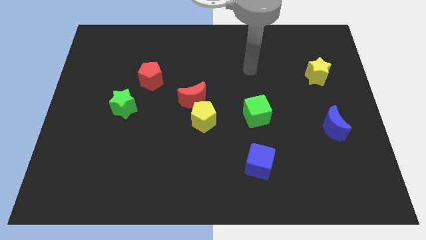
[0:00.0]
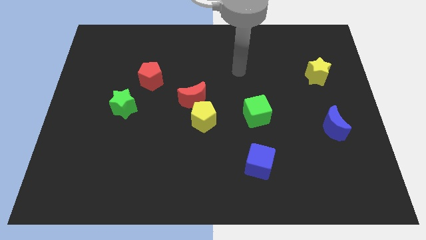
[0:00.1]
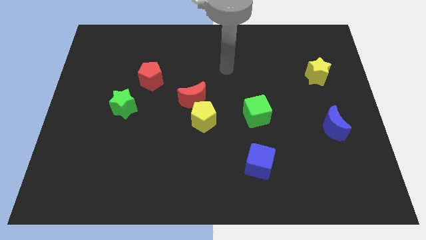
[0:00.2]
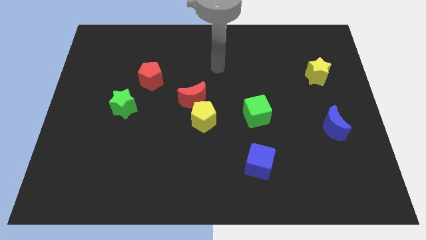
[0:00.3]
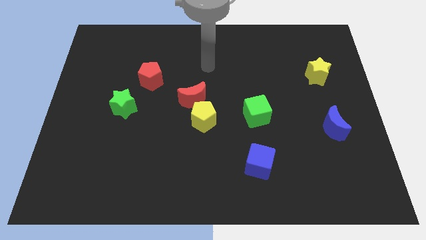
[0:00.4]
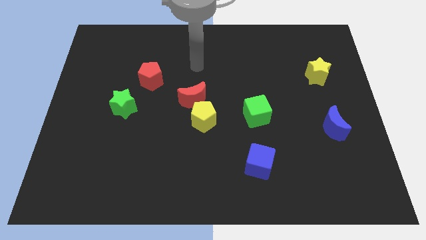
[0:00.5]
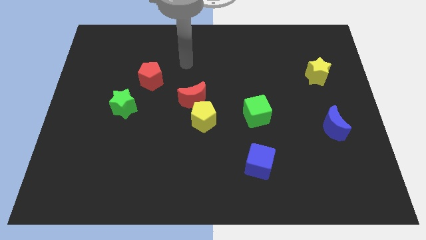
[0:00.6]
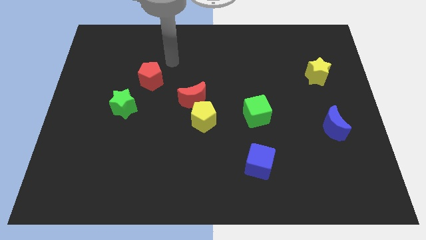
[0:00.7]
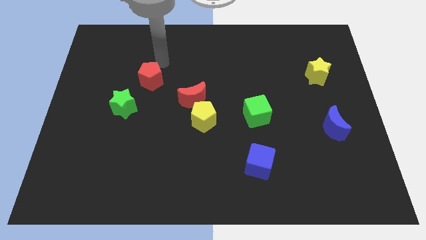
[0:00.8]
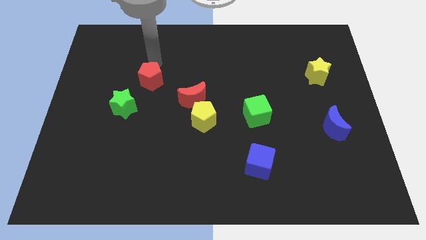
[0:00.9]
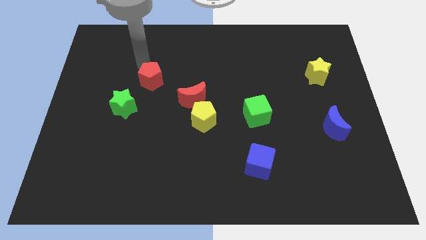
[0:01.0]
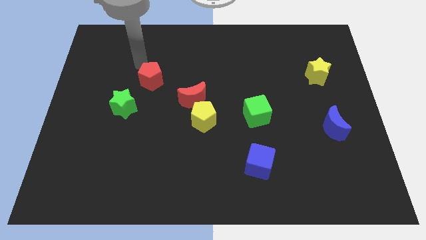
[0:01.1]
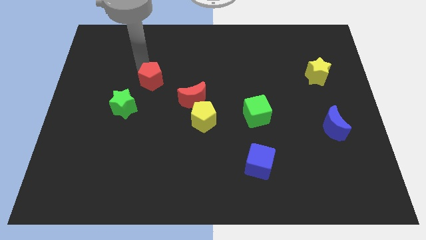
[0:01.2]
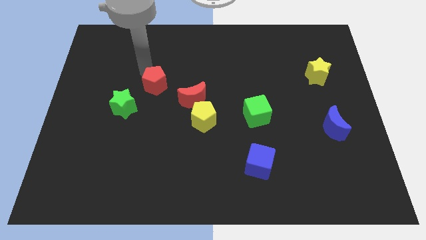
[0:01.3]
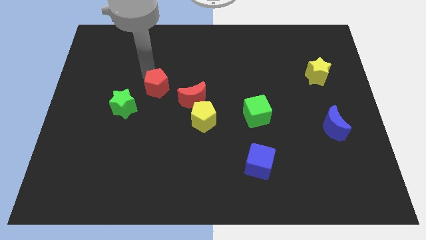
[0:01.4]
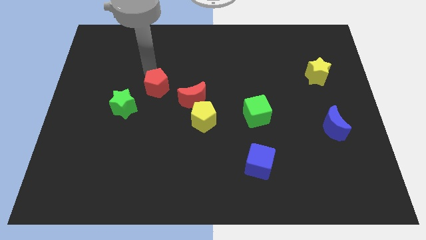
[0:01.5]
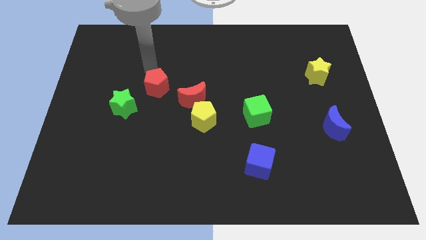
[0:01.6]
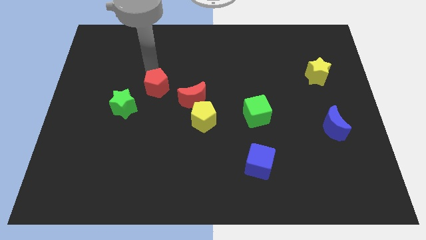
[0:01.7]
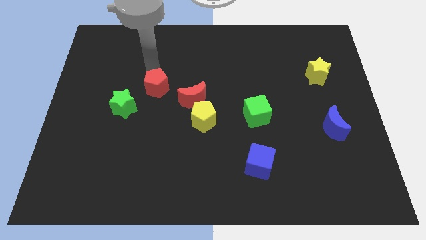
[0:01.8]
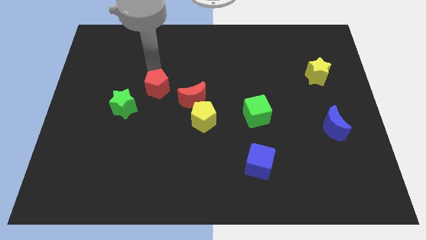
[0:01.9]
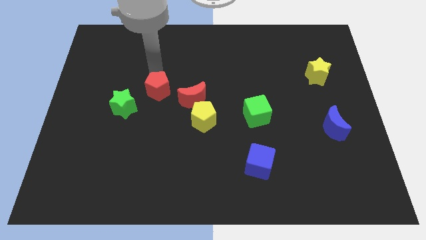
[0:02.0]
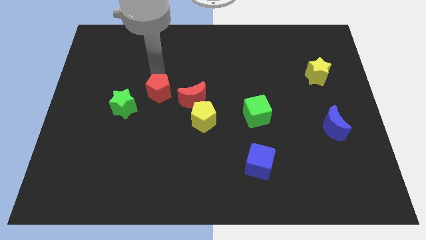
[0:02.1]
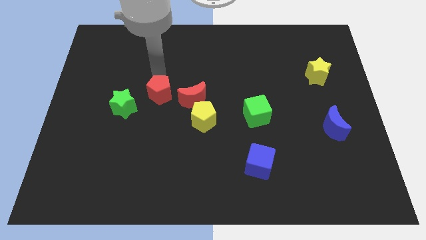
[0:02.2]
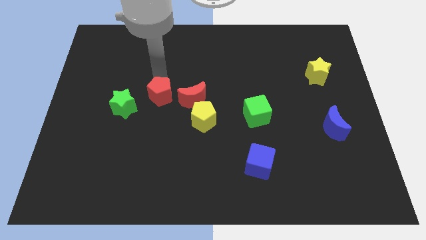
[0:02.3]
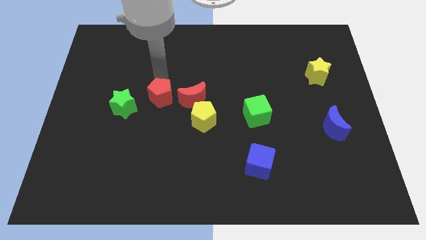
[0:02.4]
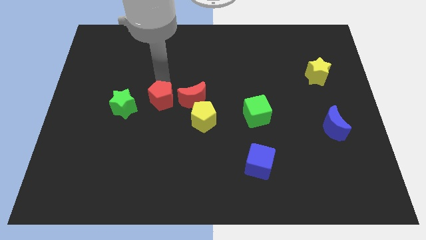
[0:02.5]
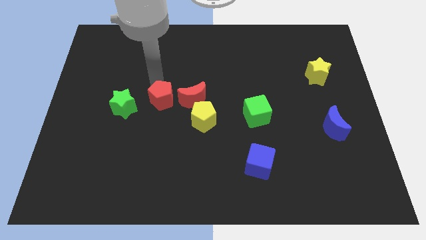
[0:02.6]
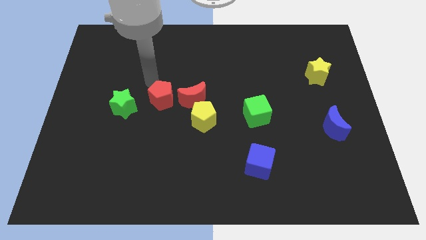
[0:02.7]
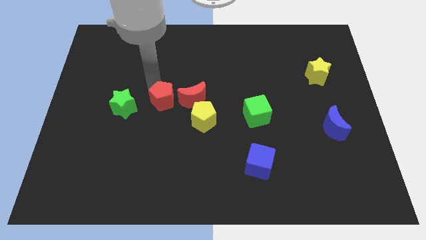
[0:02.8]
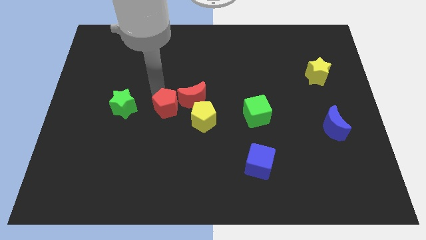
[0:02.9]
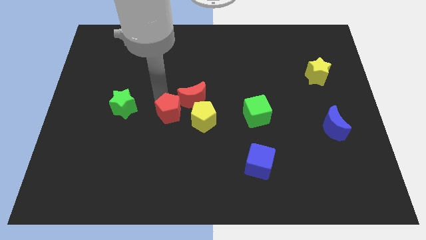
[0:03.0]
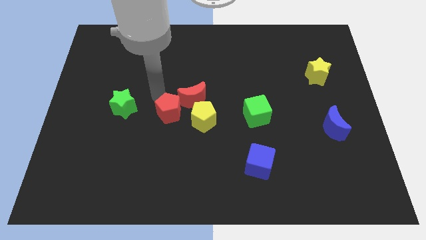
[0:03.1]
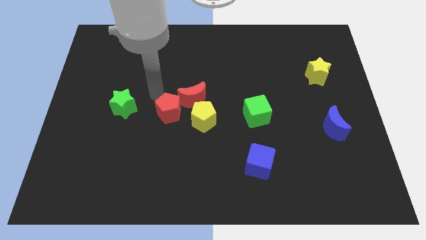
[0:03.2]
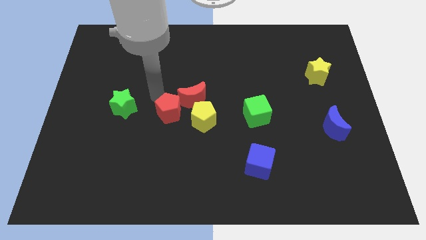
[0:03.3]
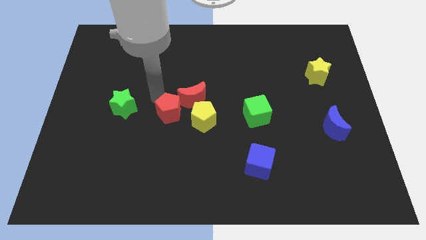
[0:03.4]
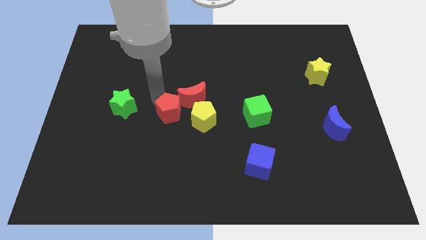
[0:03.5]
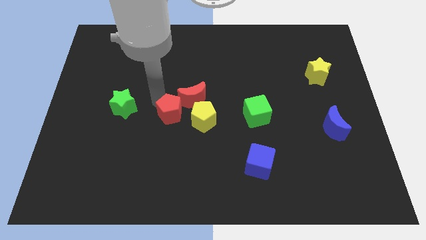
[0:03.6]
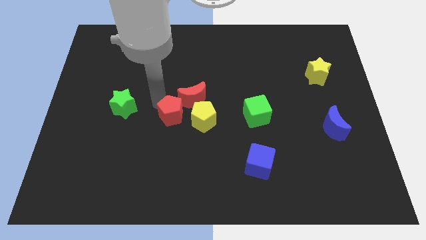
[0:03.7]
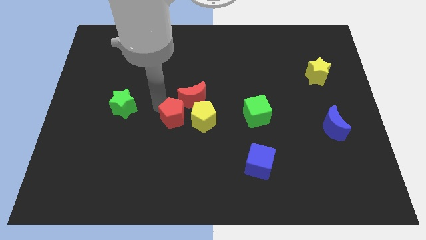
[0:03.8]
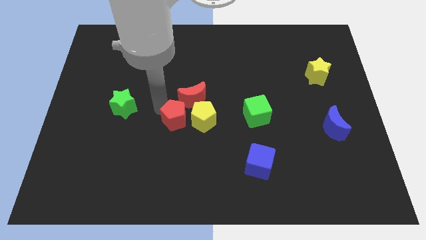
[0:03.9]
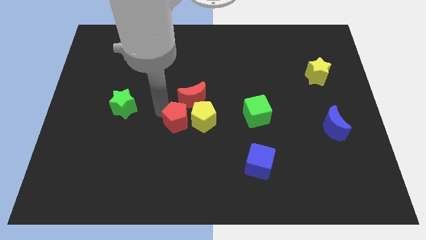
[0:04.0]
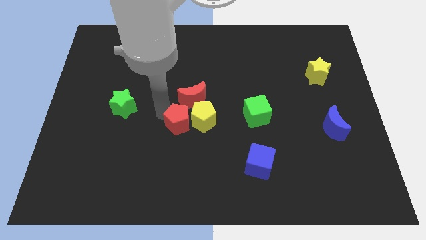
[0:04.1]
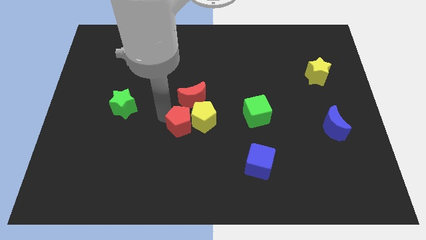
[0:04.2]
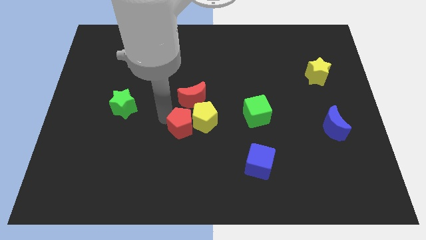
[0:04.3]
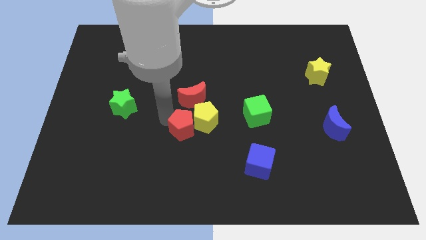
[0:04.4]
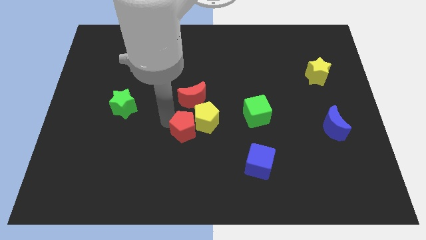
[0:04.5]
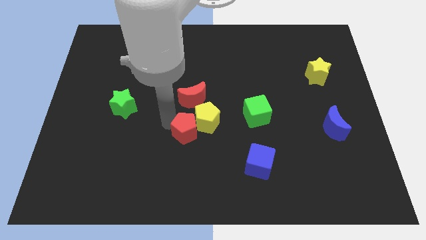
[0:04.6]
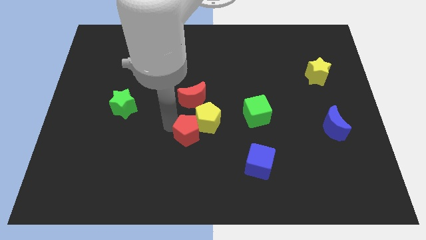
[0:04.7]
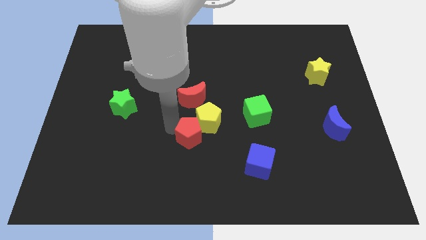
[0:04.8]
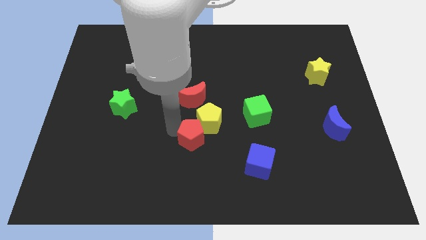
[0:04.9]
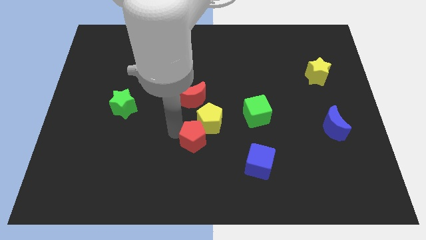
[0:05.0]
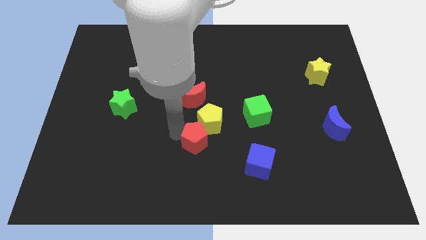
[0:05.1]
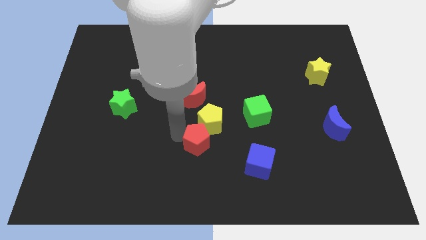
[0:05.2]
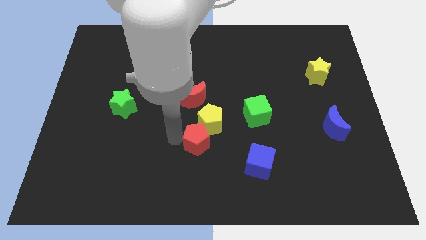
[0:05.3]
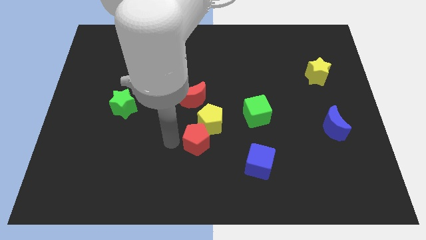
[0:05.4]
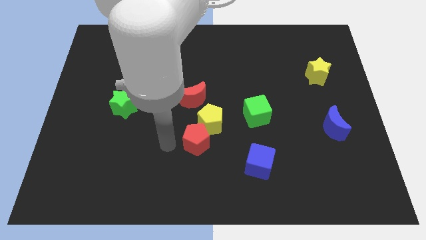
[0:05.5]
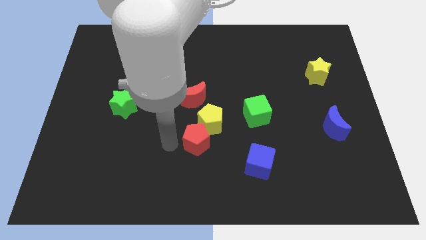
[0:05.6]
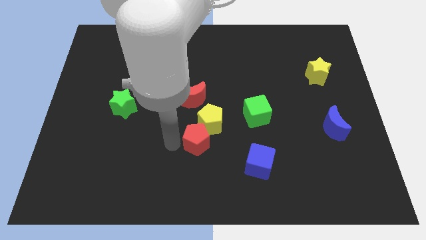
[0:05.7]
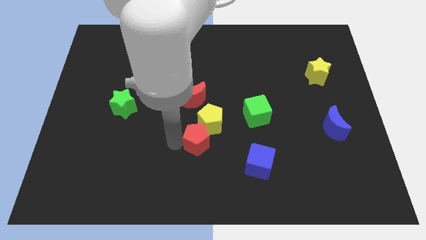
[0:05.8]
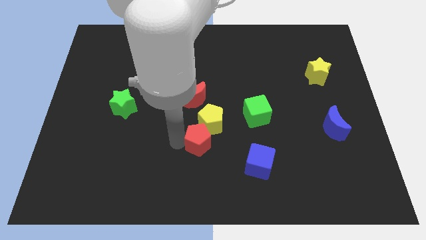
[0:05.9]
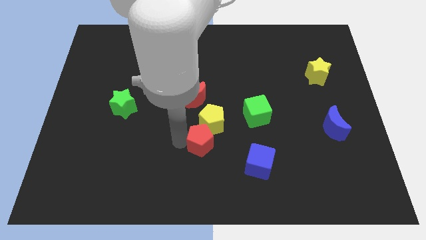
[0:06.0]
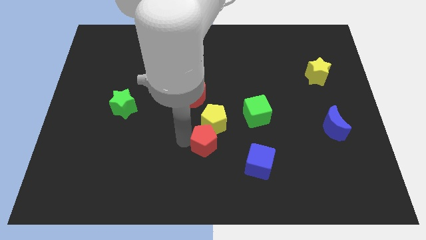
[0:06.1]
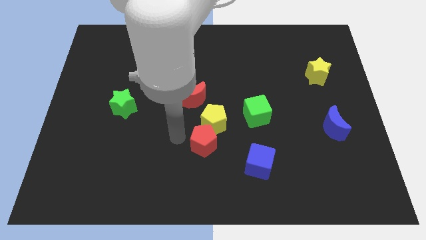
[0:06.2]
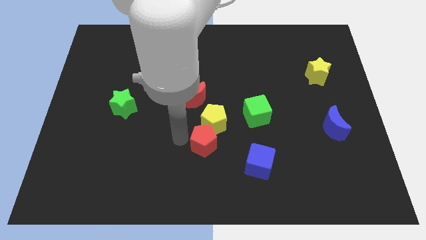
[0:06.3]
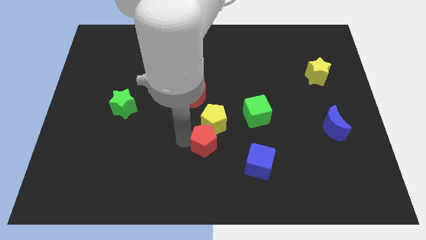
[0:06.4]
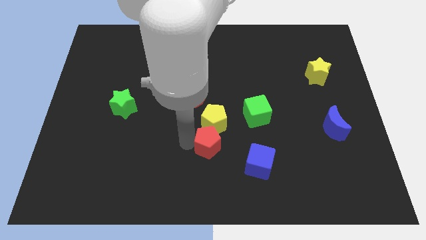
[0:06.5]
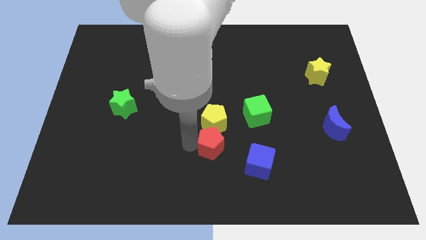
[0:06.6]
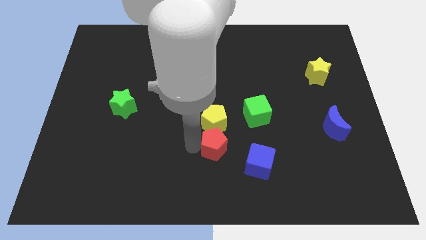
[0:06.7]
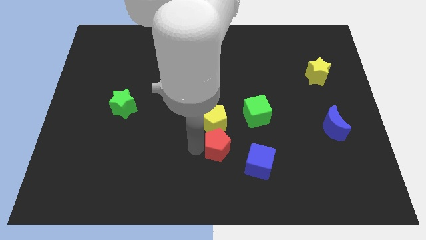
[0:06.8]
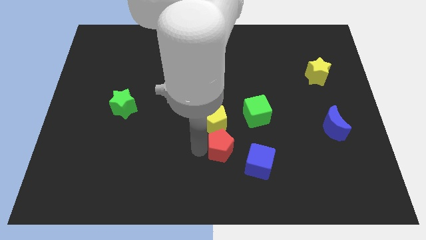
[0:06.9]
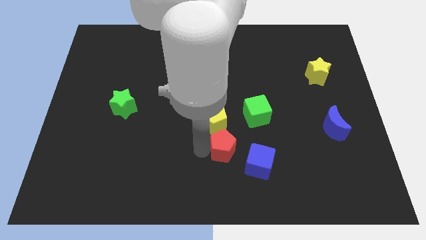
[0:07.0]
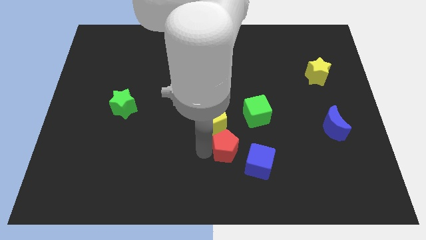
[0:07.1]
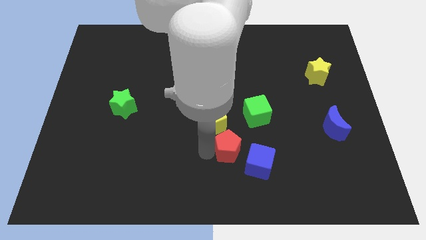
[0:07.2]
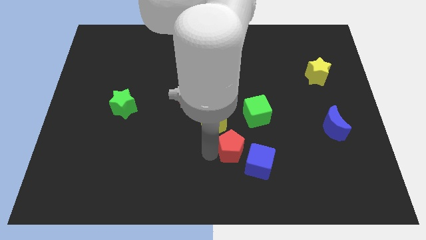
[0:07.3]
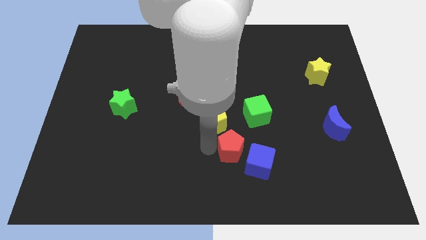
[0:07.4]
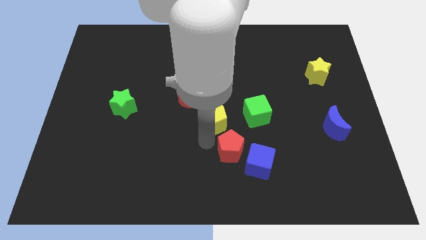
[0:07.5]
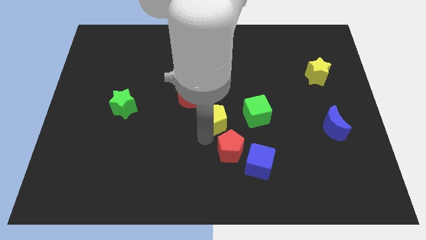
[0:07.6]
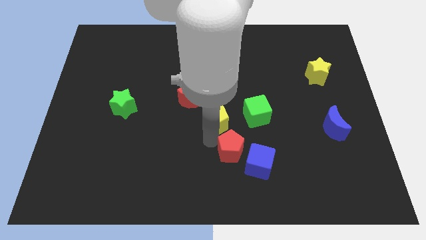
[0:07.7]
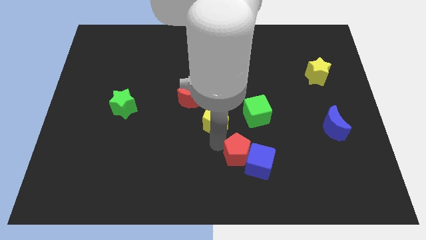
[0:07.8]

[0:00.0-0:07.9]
push the red pentagon to the blue cube

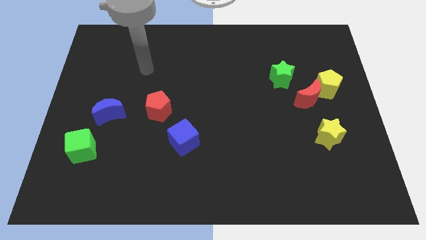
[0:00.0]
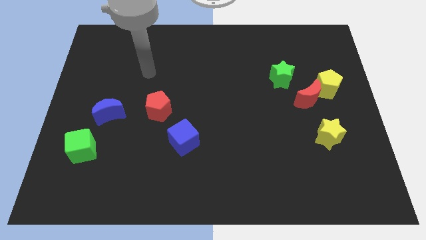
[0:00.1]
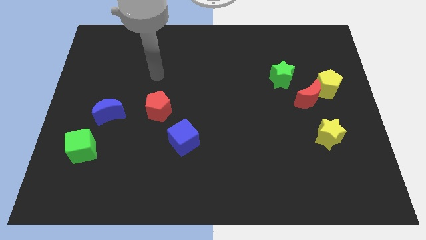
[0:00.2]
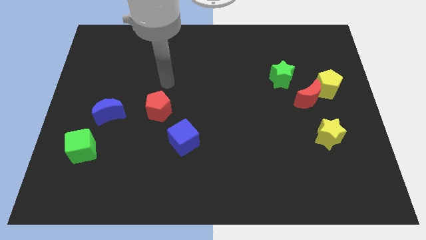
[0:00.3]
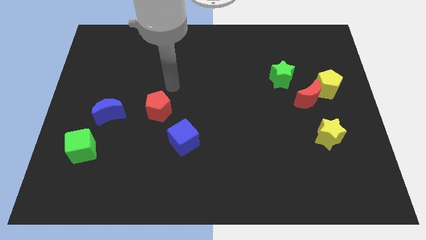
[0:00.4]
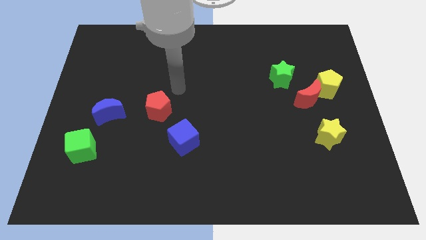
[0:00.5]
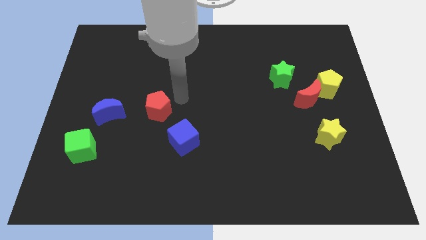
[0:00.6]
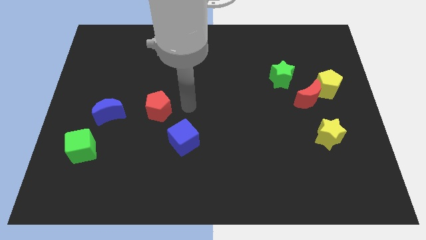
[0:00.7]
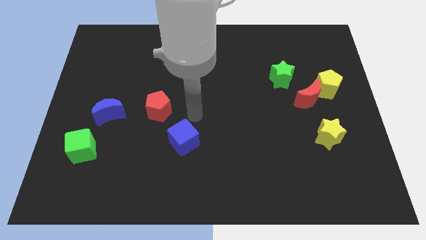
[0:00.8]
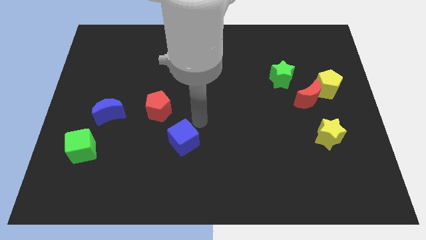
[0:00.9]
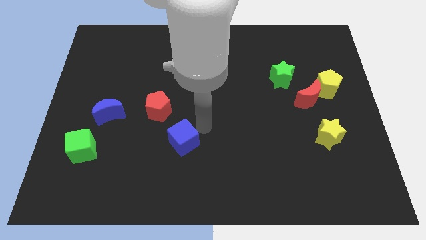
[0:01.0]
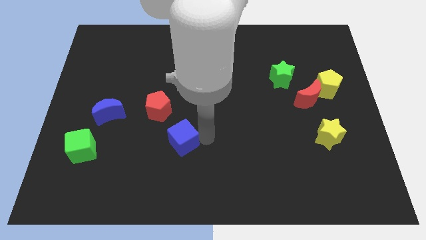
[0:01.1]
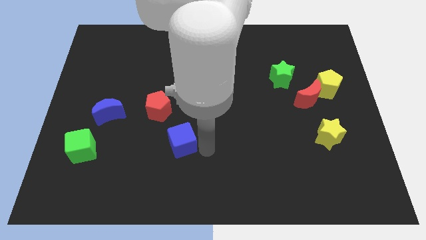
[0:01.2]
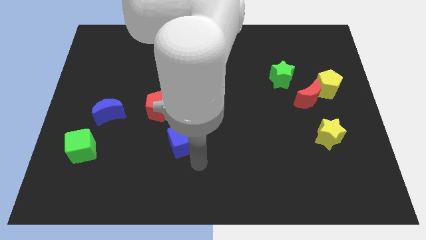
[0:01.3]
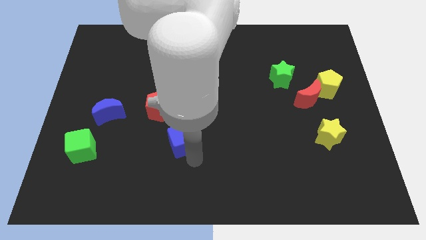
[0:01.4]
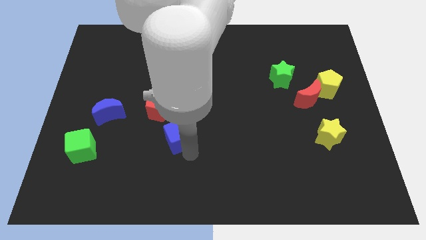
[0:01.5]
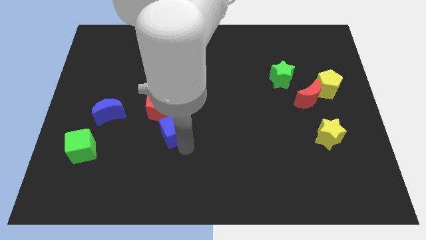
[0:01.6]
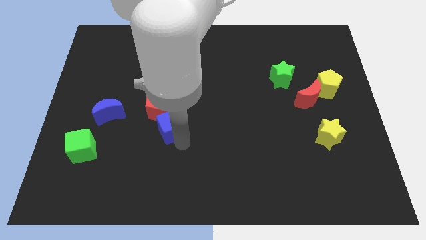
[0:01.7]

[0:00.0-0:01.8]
move the blue cube next to the red pentagon
